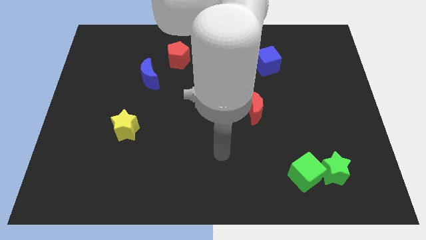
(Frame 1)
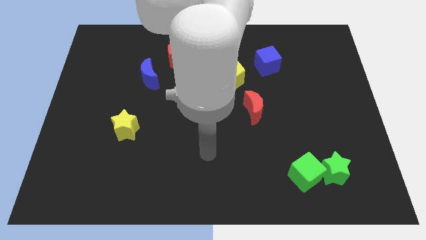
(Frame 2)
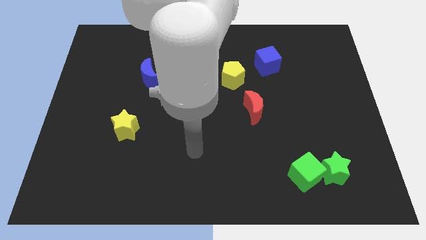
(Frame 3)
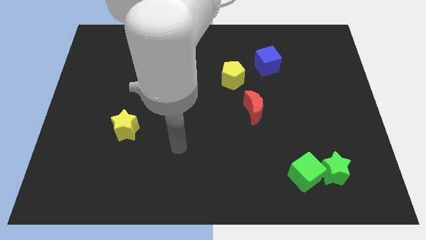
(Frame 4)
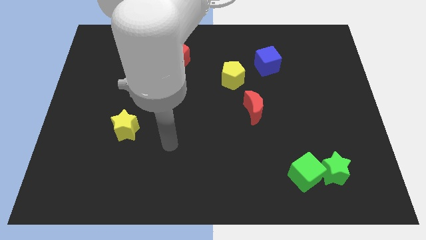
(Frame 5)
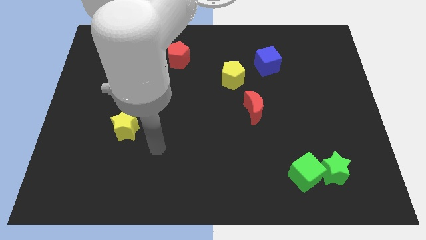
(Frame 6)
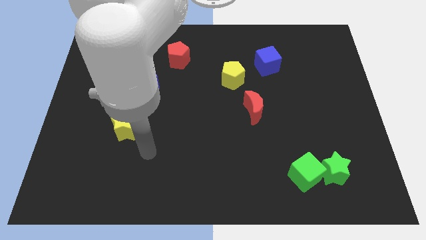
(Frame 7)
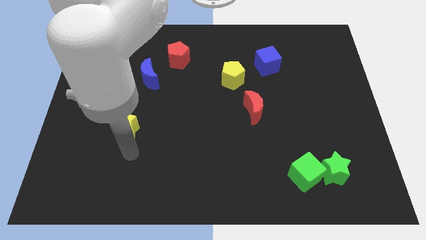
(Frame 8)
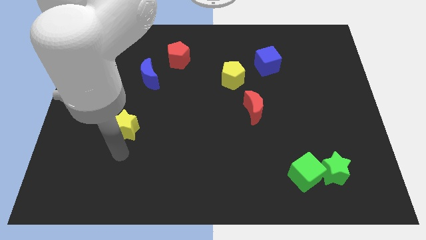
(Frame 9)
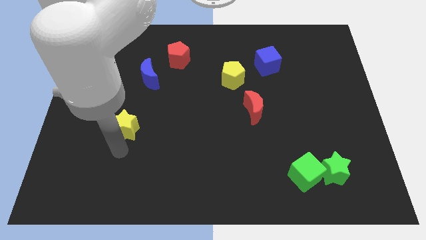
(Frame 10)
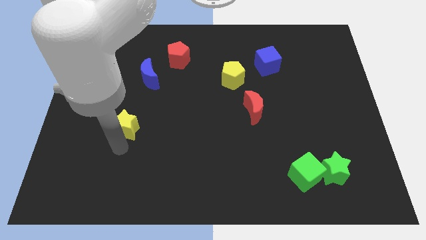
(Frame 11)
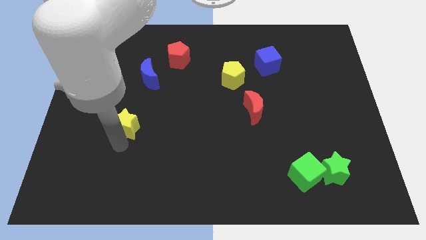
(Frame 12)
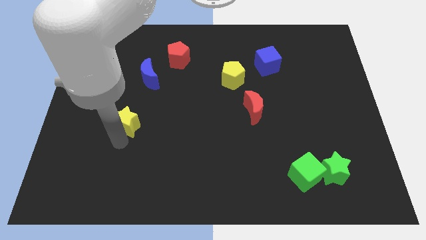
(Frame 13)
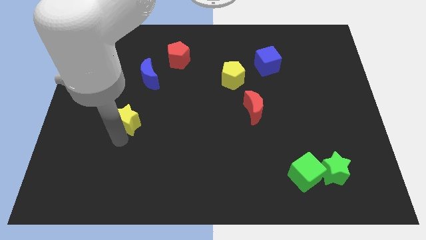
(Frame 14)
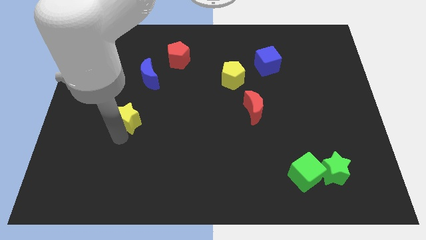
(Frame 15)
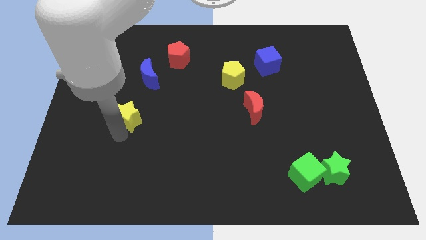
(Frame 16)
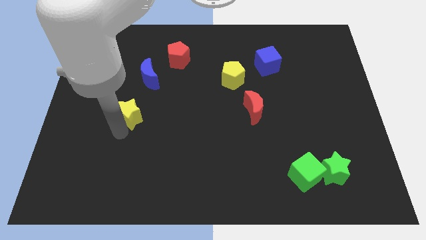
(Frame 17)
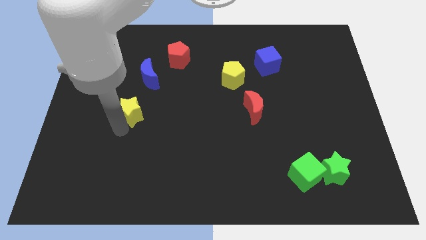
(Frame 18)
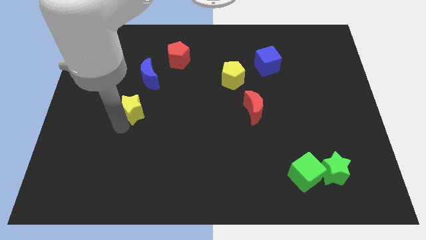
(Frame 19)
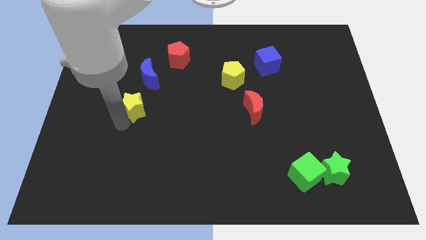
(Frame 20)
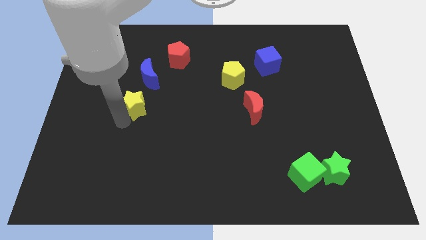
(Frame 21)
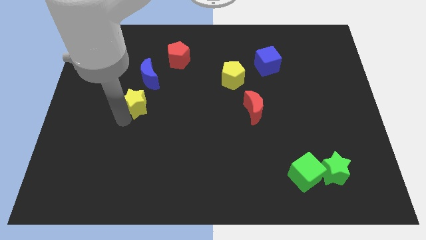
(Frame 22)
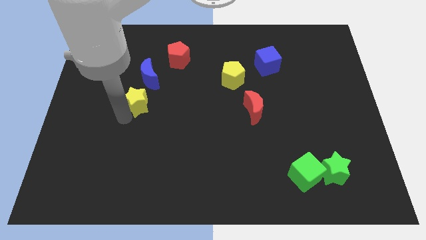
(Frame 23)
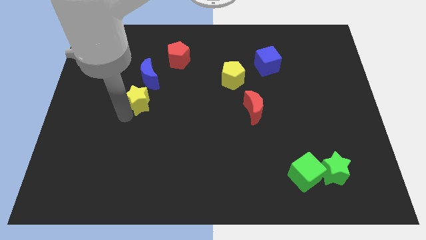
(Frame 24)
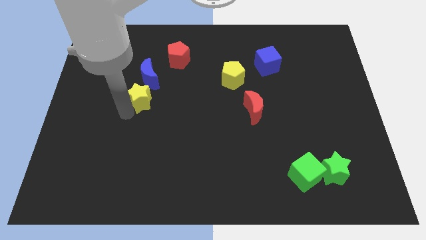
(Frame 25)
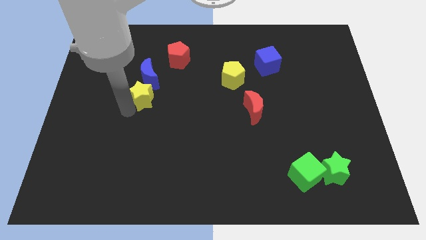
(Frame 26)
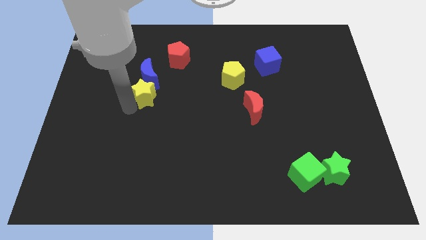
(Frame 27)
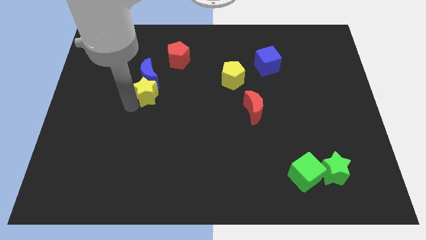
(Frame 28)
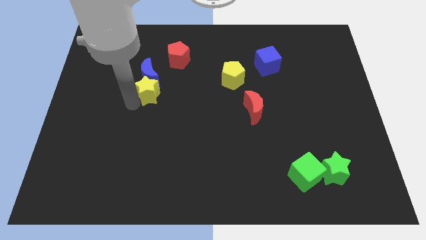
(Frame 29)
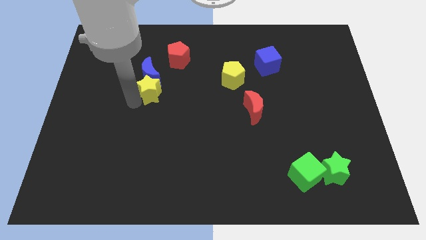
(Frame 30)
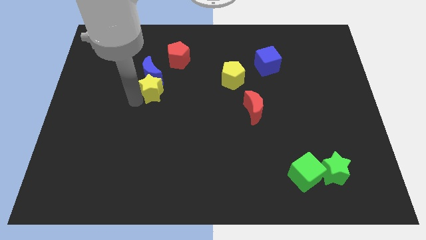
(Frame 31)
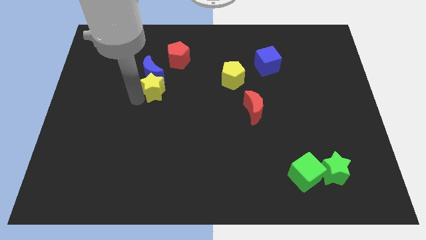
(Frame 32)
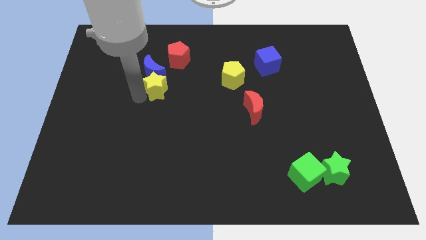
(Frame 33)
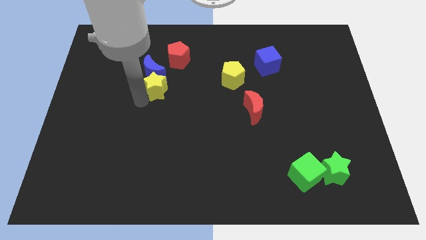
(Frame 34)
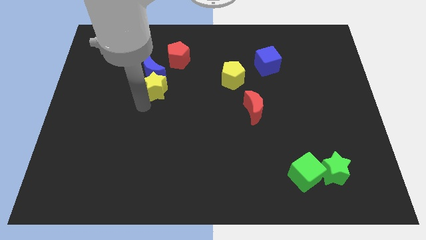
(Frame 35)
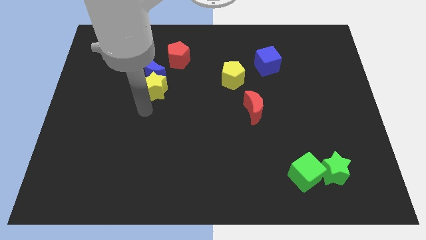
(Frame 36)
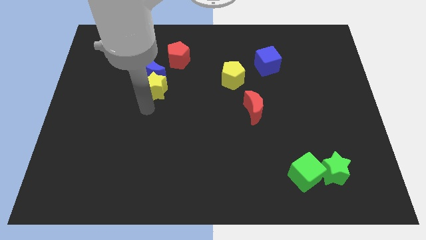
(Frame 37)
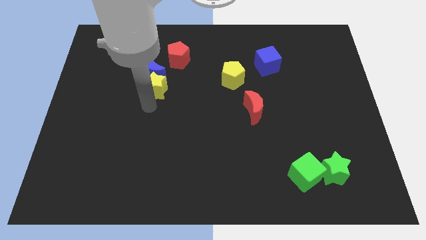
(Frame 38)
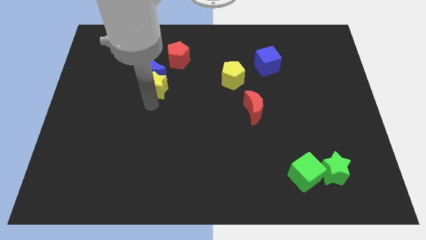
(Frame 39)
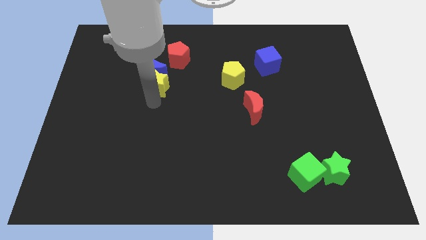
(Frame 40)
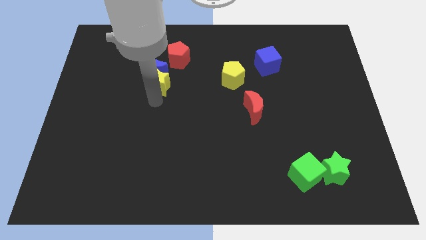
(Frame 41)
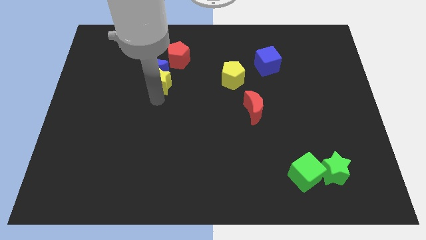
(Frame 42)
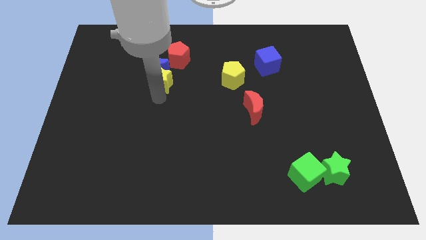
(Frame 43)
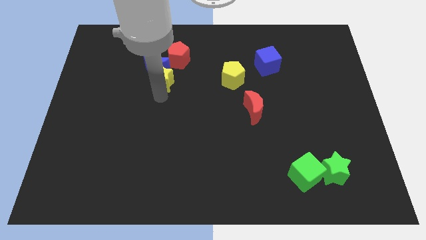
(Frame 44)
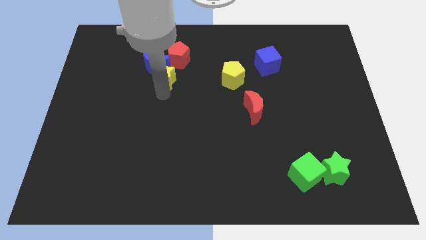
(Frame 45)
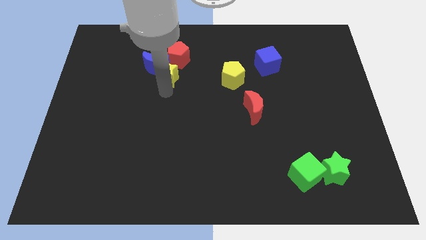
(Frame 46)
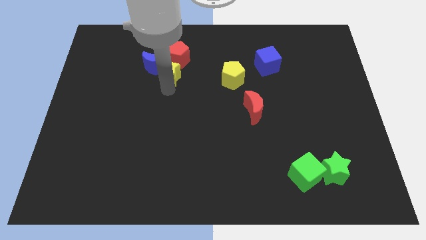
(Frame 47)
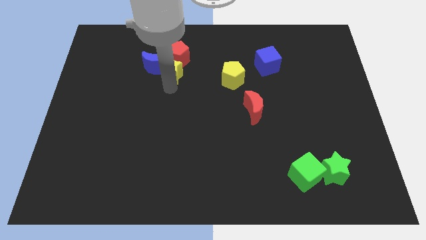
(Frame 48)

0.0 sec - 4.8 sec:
put the yellow star towards the red pentagon

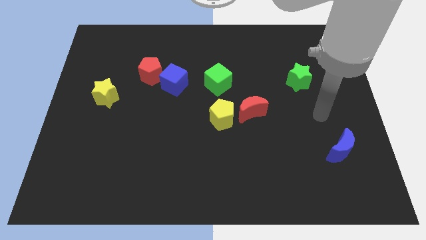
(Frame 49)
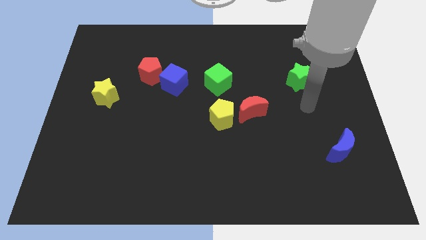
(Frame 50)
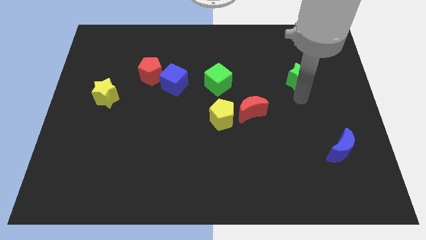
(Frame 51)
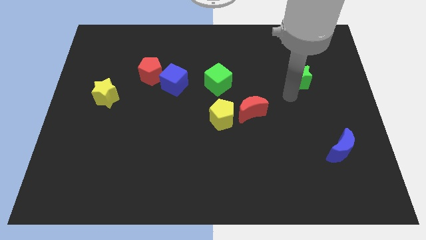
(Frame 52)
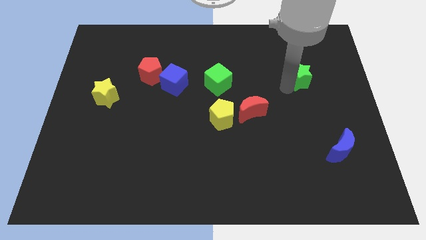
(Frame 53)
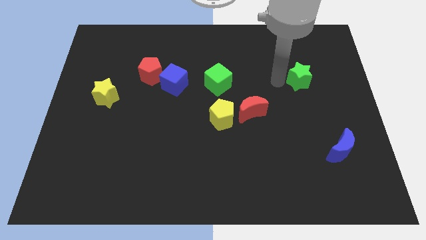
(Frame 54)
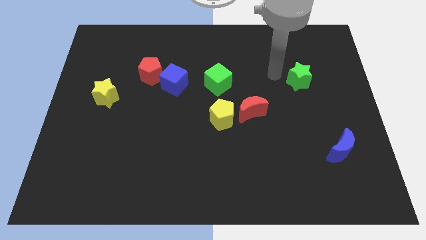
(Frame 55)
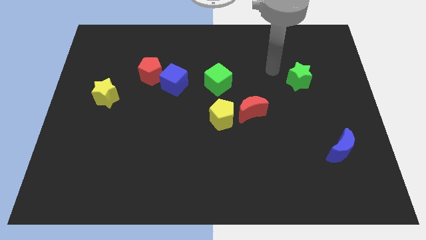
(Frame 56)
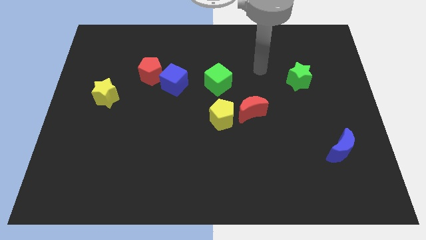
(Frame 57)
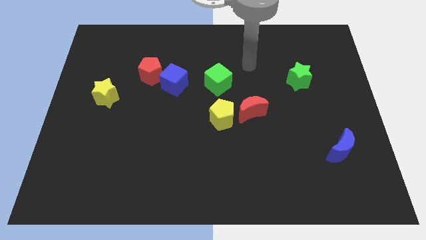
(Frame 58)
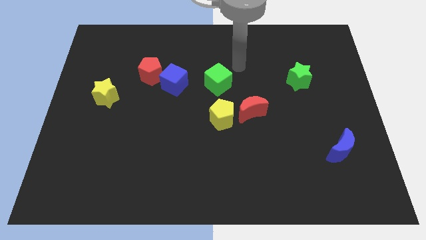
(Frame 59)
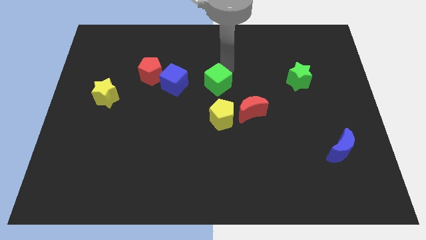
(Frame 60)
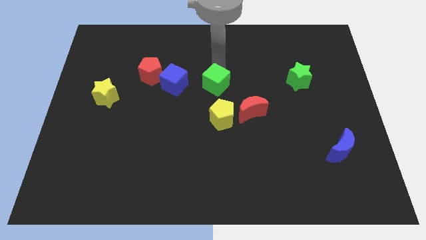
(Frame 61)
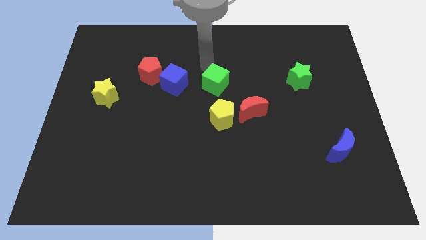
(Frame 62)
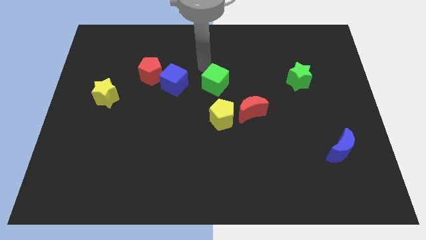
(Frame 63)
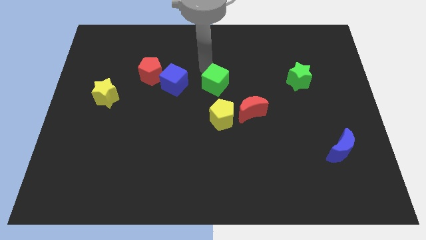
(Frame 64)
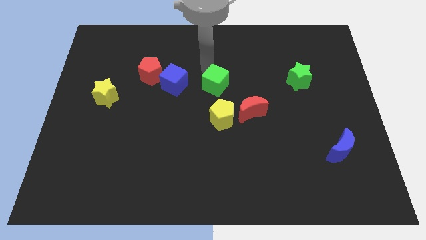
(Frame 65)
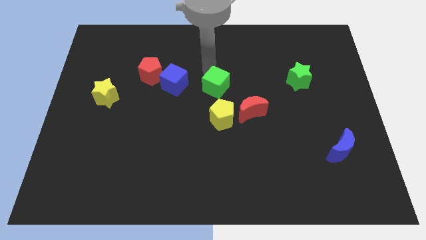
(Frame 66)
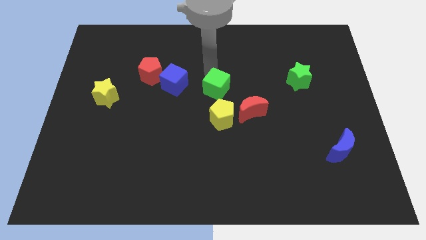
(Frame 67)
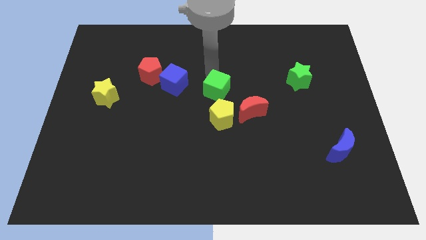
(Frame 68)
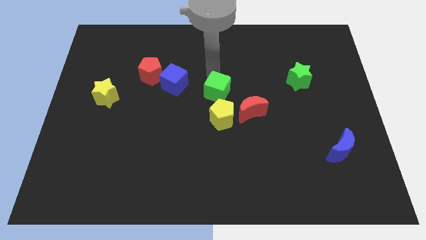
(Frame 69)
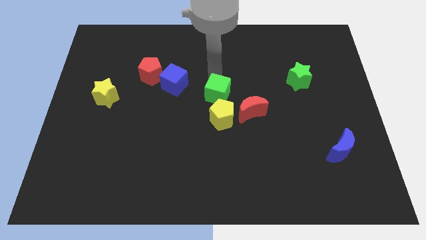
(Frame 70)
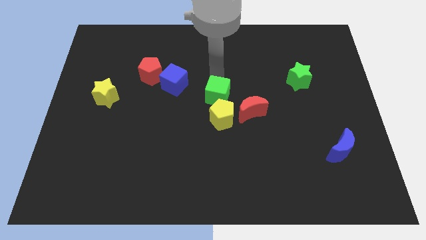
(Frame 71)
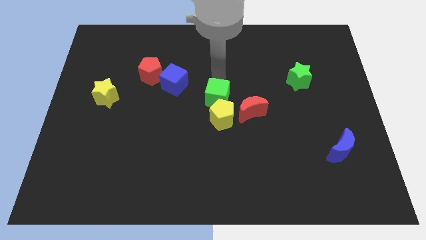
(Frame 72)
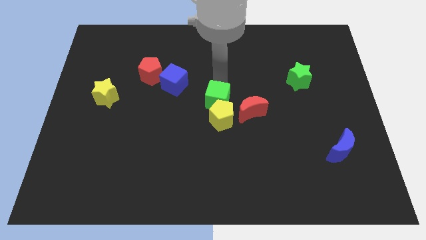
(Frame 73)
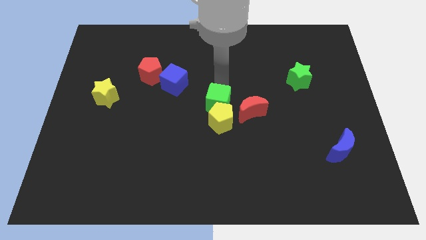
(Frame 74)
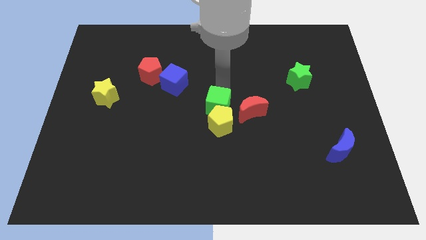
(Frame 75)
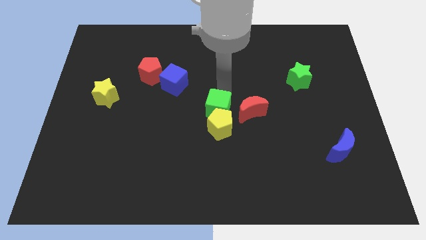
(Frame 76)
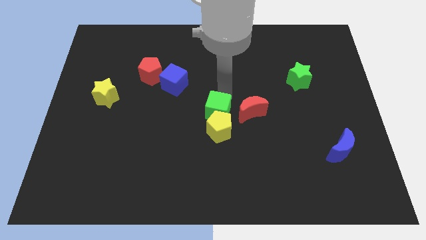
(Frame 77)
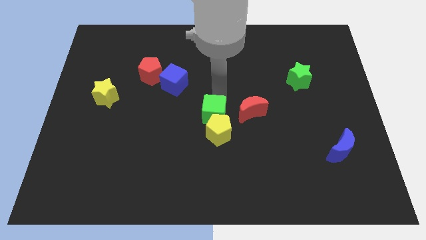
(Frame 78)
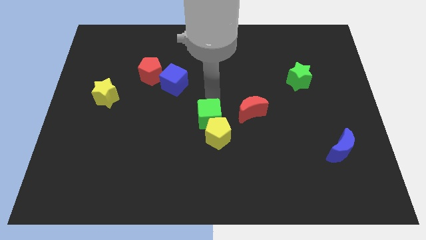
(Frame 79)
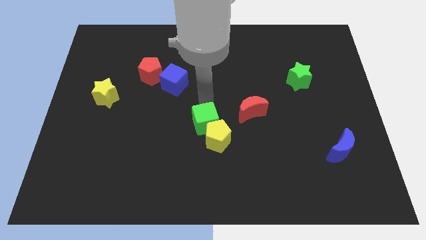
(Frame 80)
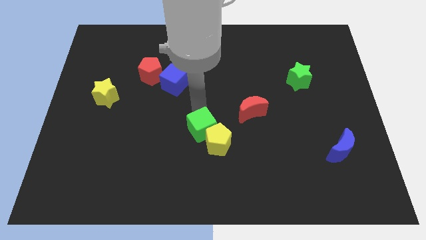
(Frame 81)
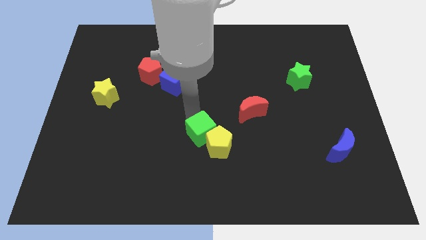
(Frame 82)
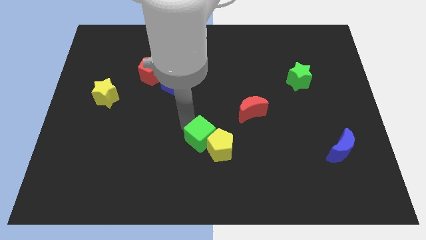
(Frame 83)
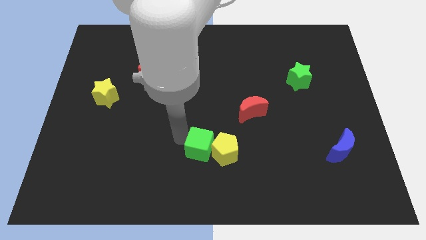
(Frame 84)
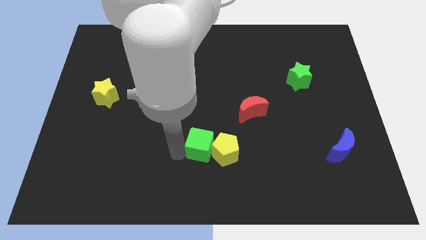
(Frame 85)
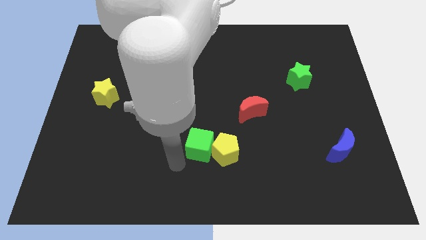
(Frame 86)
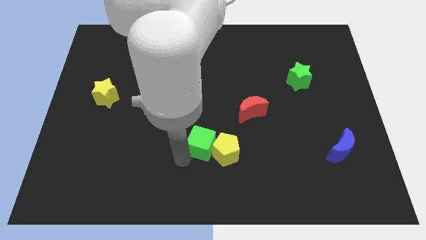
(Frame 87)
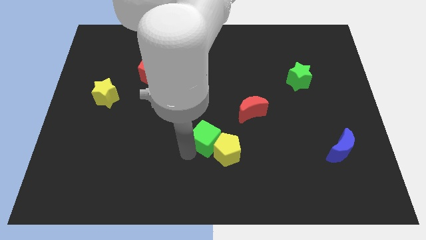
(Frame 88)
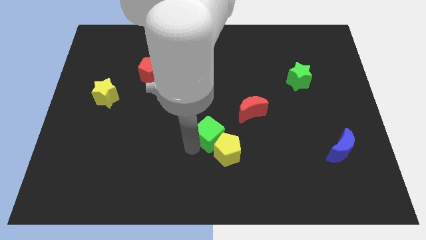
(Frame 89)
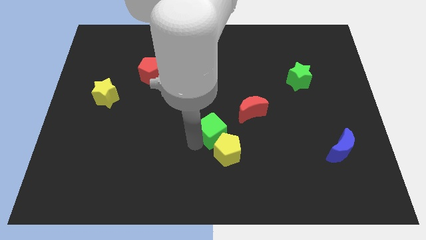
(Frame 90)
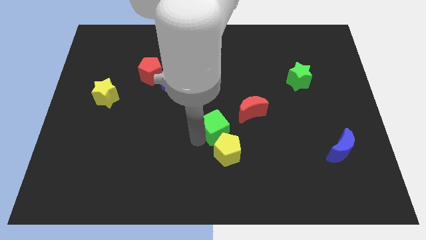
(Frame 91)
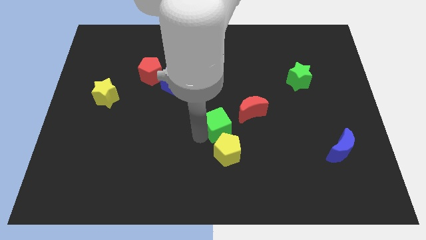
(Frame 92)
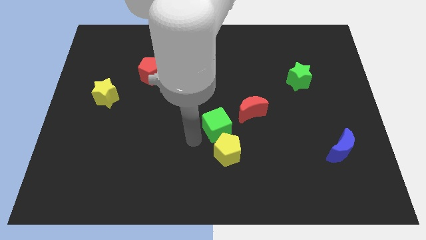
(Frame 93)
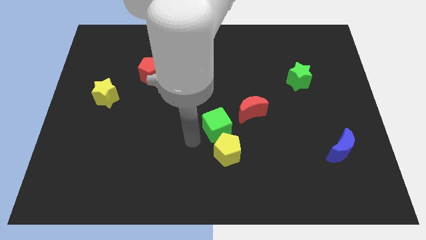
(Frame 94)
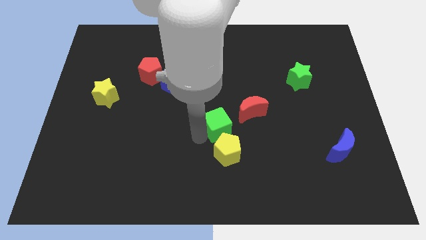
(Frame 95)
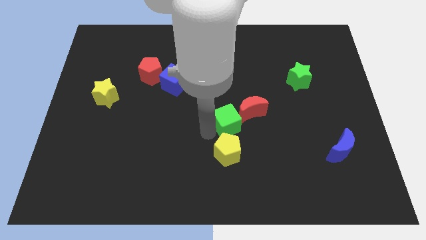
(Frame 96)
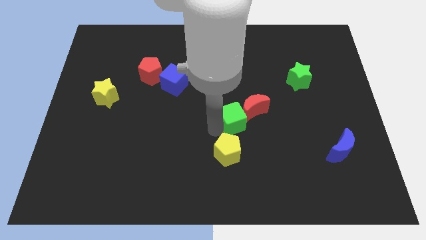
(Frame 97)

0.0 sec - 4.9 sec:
push the green cube close to the red moon
